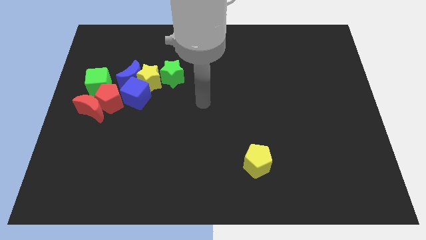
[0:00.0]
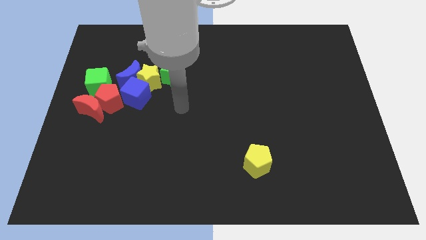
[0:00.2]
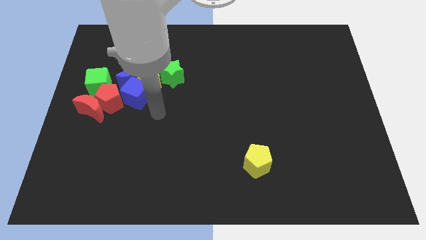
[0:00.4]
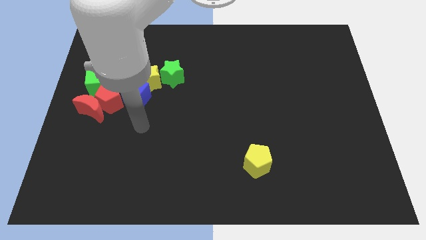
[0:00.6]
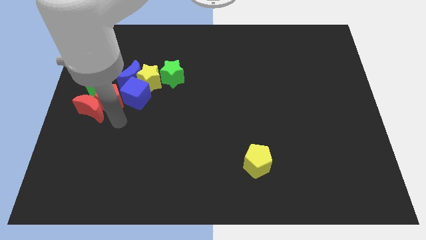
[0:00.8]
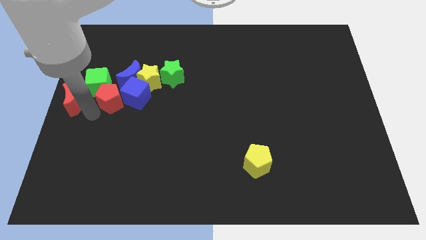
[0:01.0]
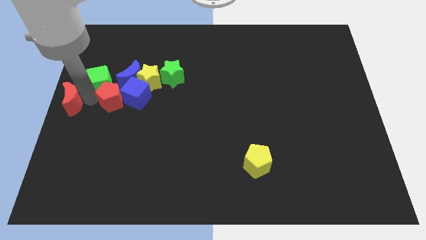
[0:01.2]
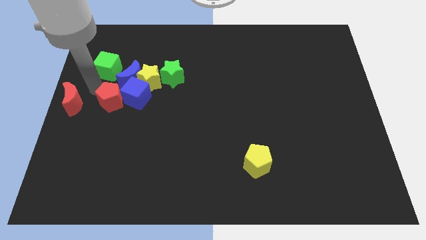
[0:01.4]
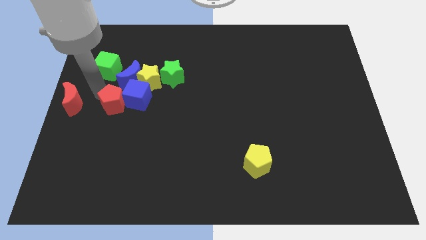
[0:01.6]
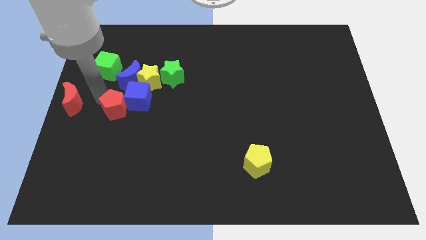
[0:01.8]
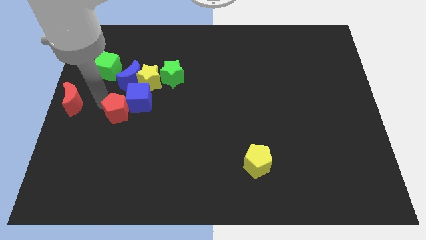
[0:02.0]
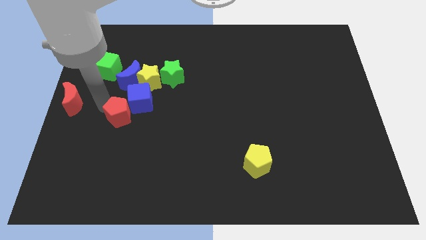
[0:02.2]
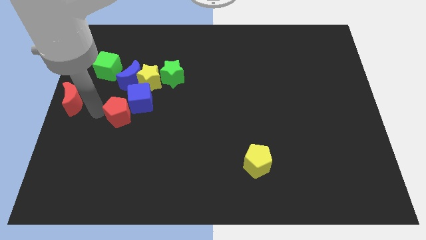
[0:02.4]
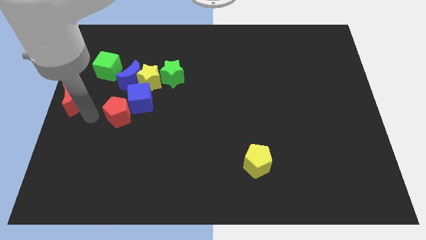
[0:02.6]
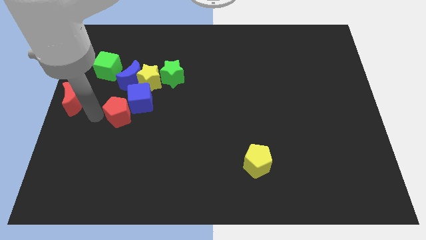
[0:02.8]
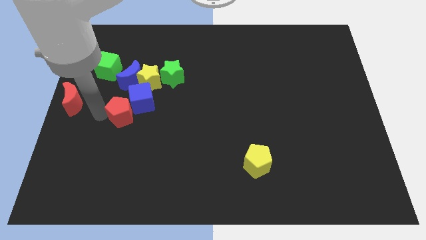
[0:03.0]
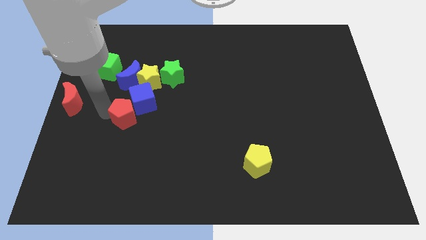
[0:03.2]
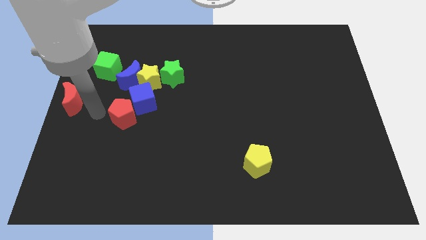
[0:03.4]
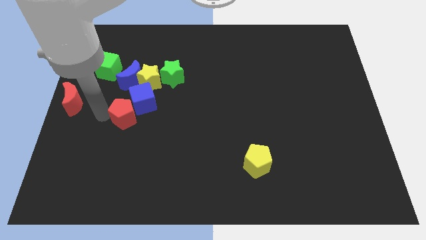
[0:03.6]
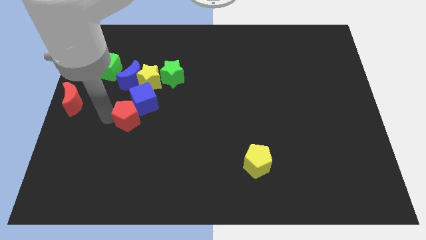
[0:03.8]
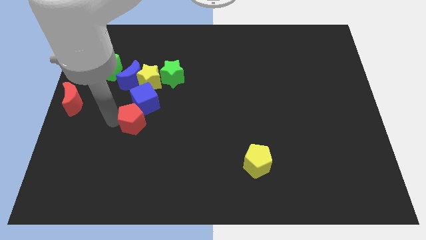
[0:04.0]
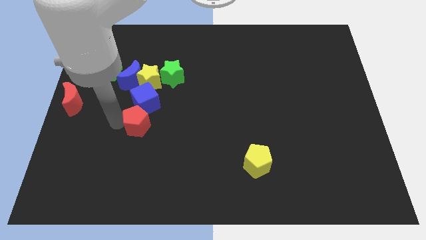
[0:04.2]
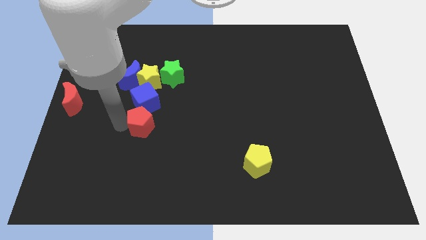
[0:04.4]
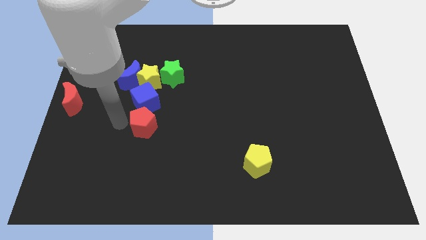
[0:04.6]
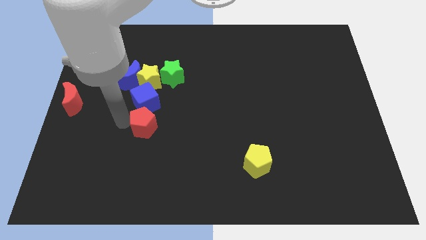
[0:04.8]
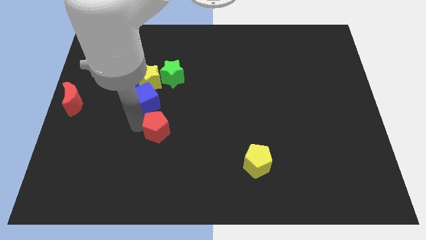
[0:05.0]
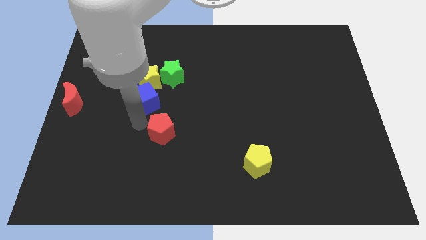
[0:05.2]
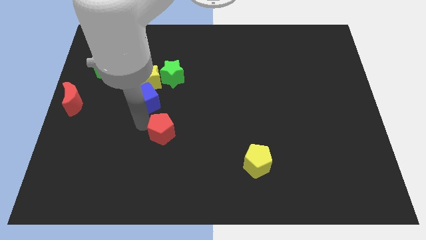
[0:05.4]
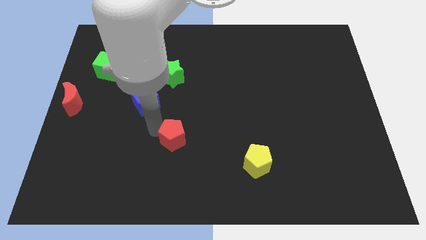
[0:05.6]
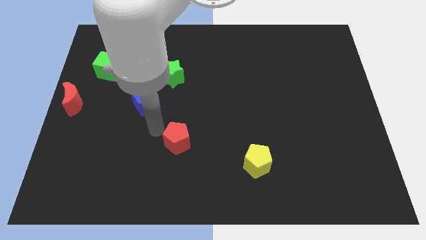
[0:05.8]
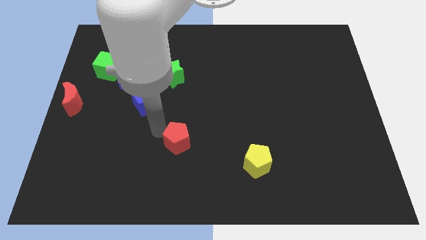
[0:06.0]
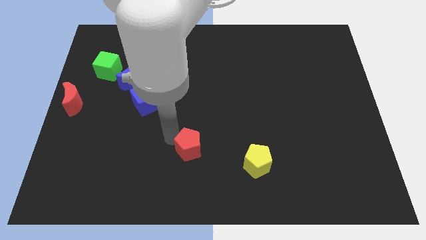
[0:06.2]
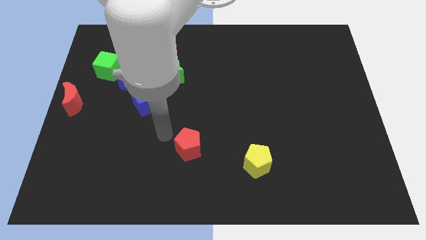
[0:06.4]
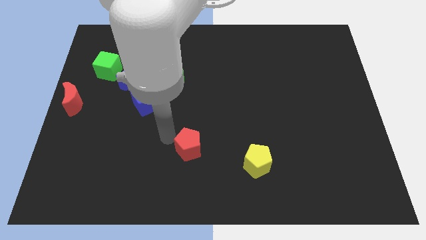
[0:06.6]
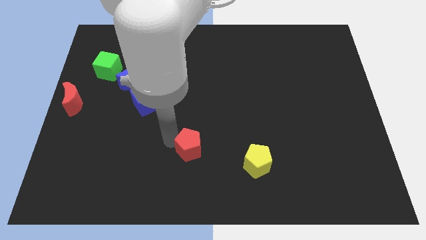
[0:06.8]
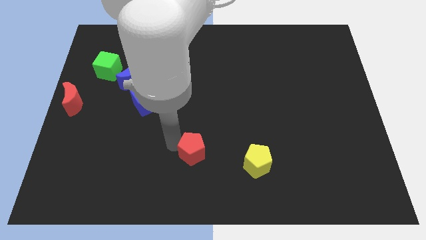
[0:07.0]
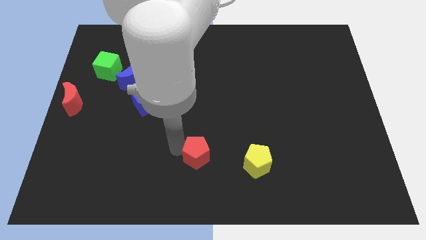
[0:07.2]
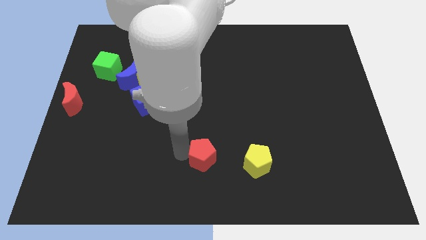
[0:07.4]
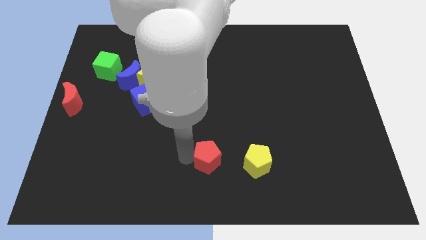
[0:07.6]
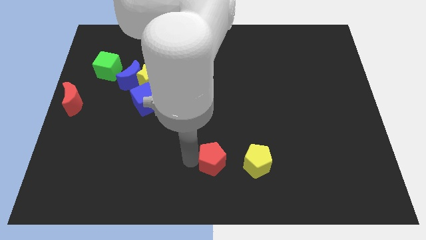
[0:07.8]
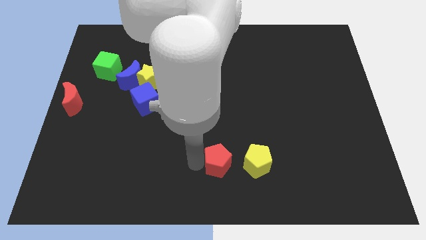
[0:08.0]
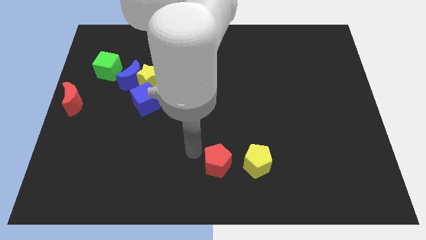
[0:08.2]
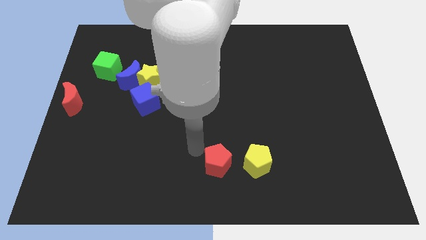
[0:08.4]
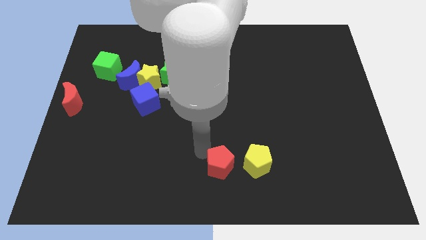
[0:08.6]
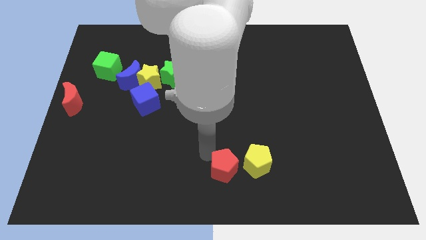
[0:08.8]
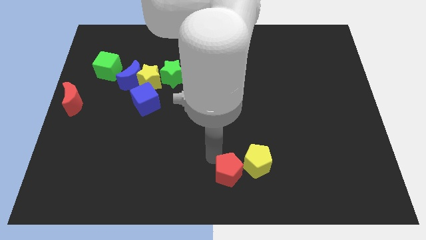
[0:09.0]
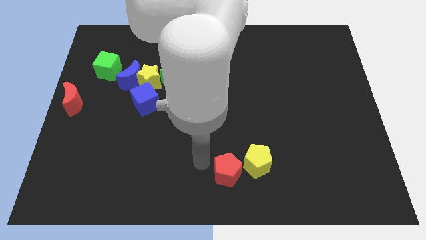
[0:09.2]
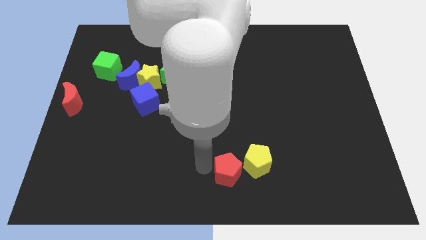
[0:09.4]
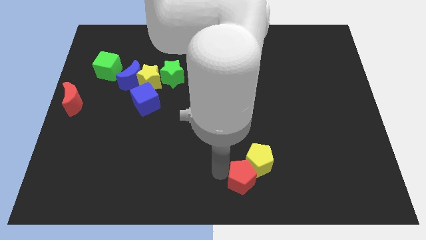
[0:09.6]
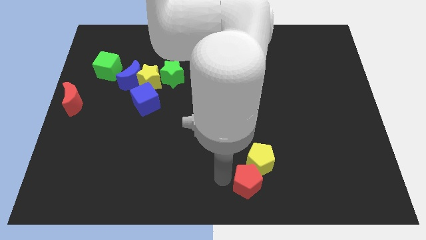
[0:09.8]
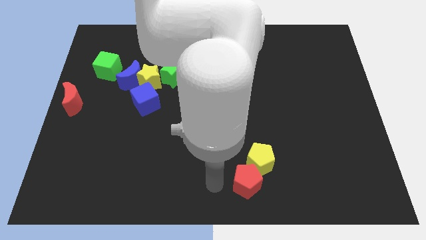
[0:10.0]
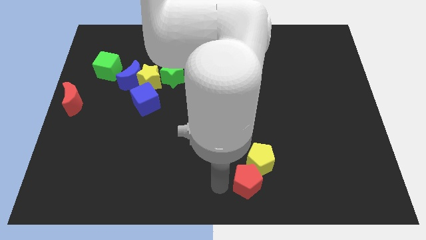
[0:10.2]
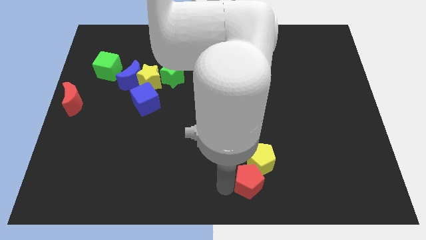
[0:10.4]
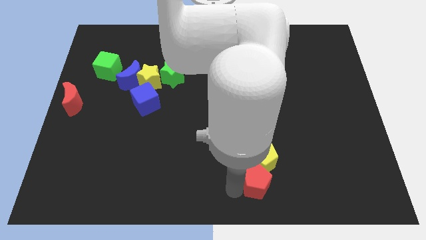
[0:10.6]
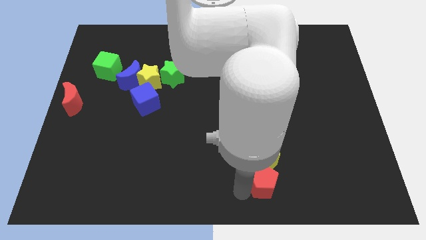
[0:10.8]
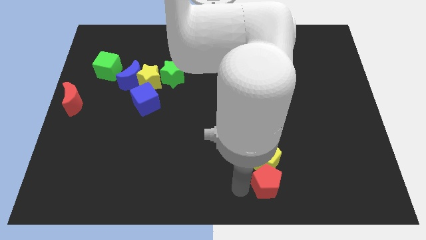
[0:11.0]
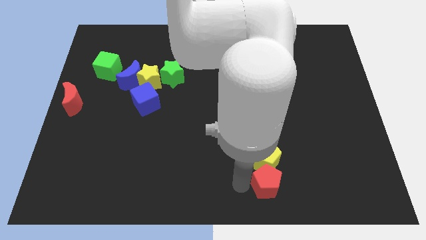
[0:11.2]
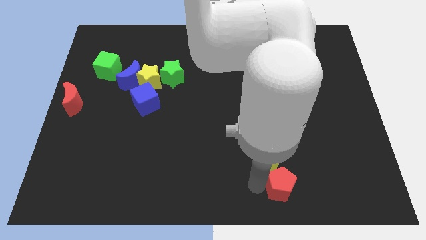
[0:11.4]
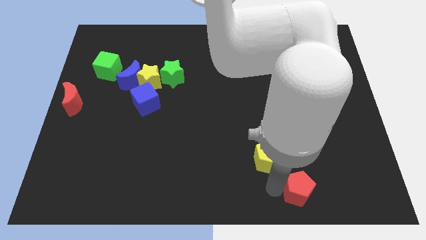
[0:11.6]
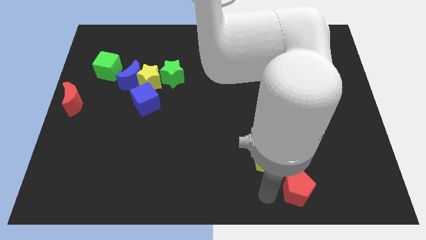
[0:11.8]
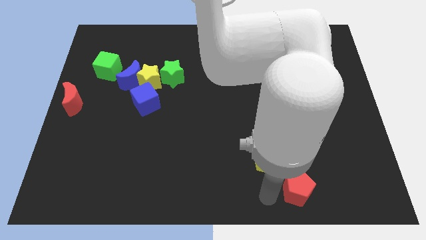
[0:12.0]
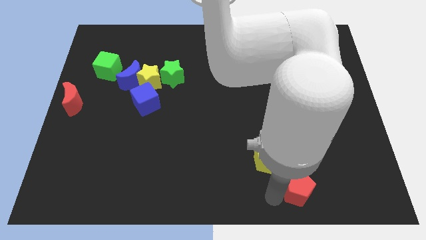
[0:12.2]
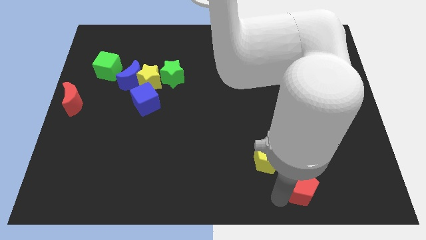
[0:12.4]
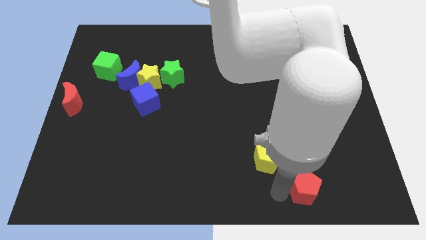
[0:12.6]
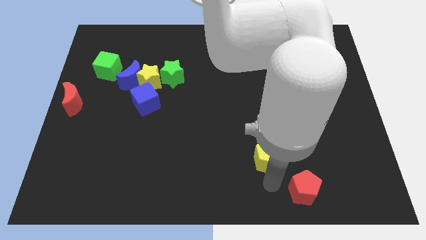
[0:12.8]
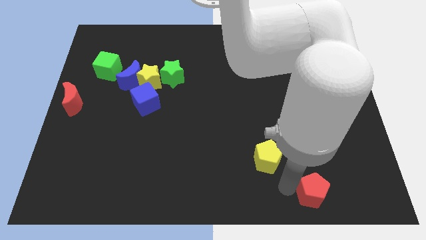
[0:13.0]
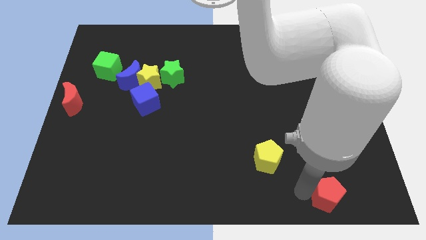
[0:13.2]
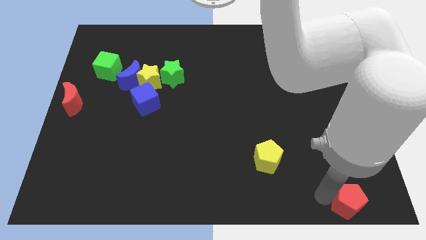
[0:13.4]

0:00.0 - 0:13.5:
slide the red pentagon to the bottom right of the board

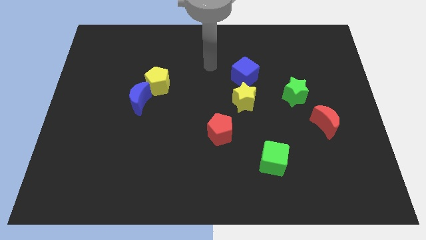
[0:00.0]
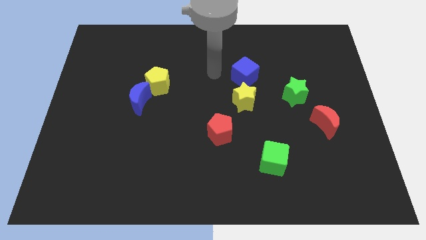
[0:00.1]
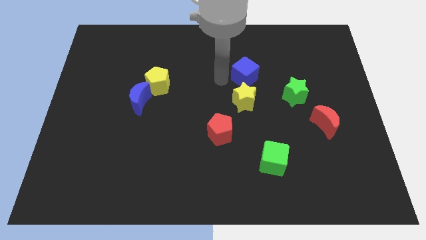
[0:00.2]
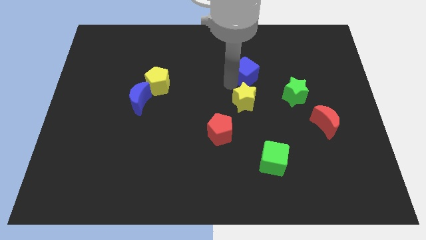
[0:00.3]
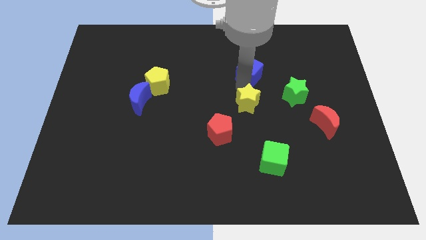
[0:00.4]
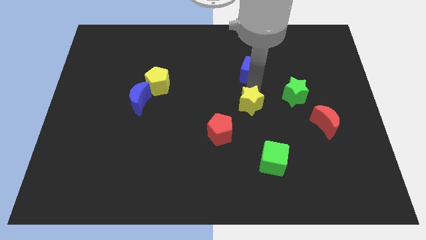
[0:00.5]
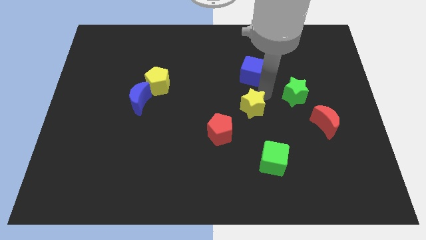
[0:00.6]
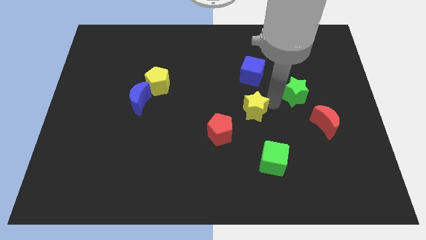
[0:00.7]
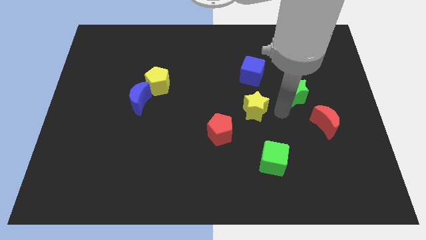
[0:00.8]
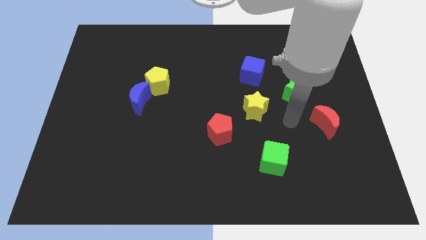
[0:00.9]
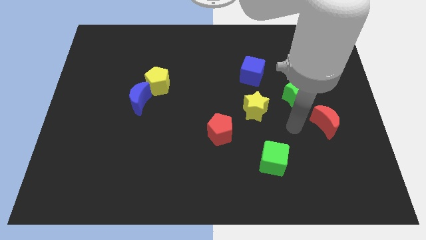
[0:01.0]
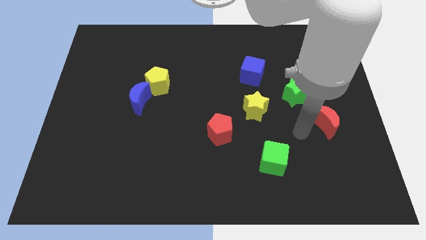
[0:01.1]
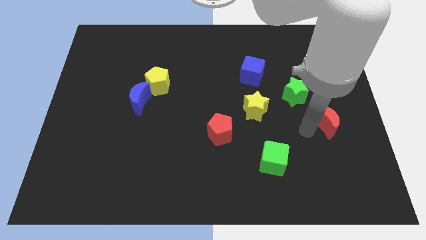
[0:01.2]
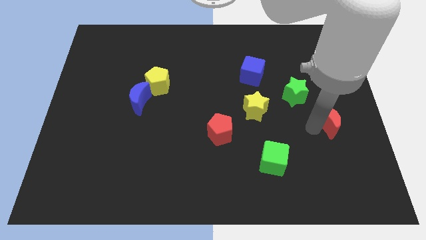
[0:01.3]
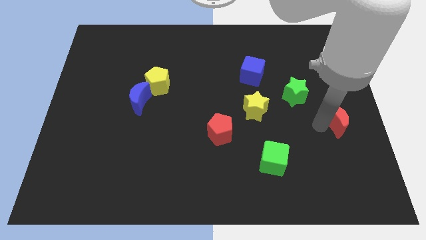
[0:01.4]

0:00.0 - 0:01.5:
put the red moon to the right side
